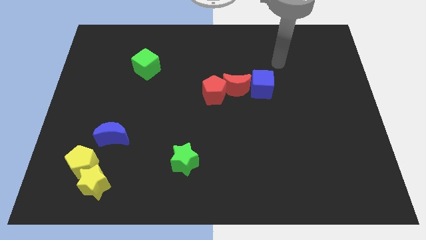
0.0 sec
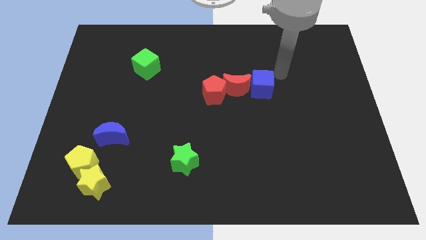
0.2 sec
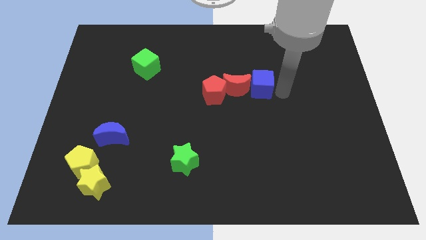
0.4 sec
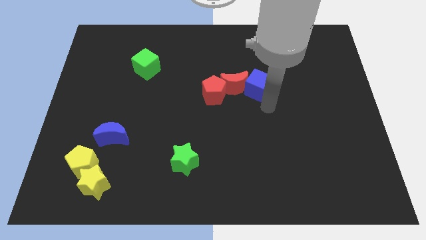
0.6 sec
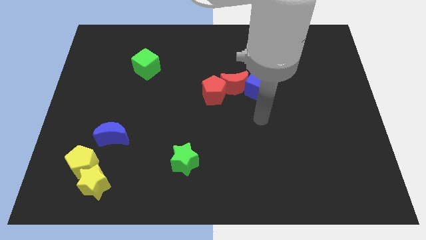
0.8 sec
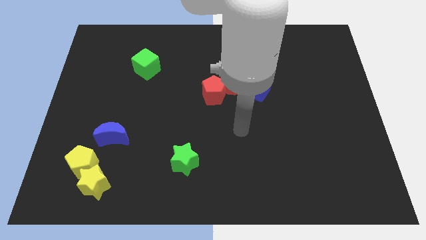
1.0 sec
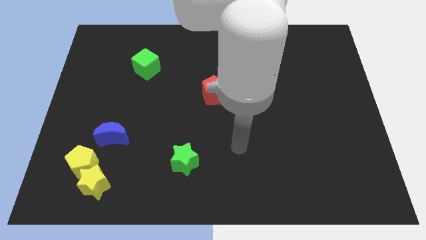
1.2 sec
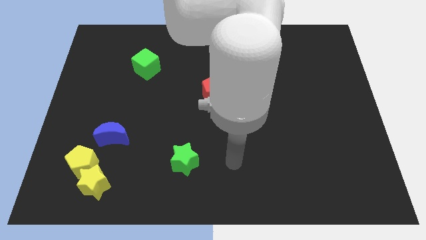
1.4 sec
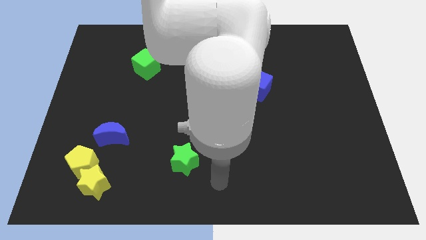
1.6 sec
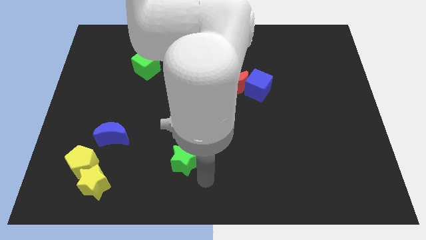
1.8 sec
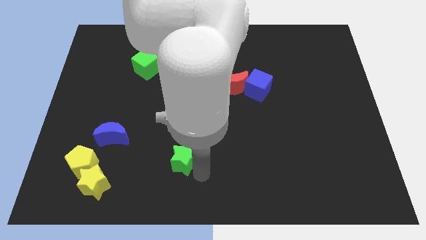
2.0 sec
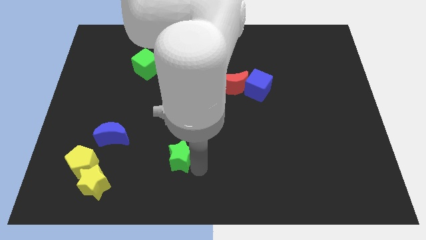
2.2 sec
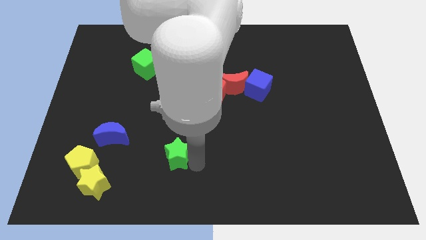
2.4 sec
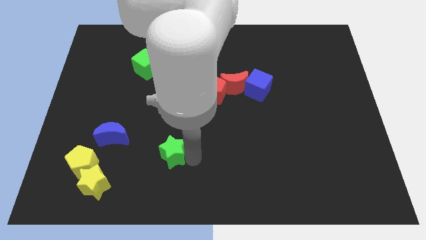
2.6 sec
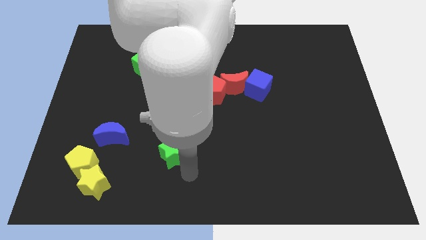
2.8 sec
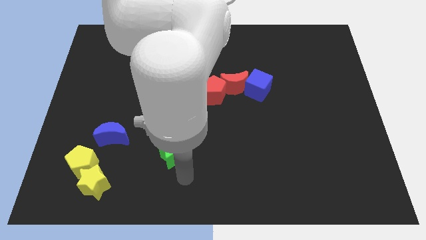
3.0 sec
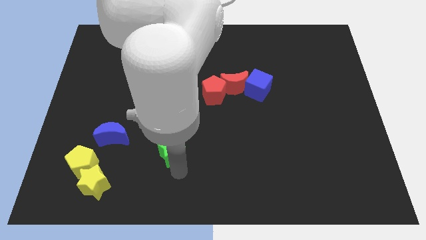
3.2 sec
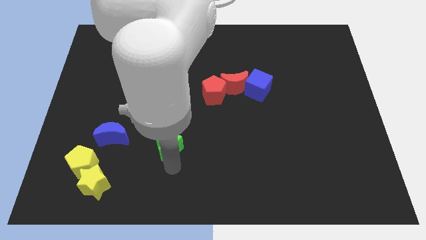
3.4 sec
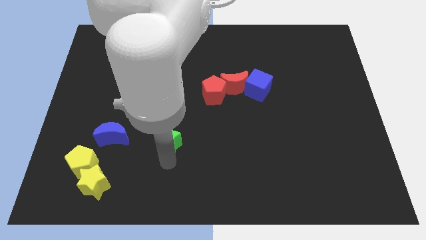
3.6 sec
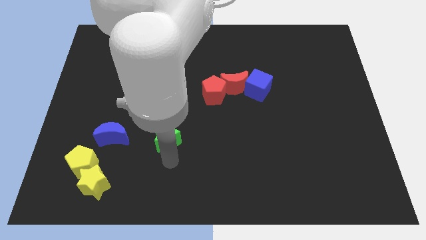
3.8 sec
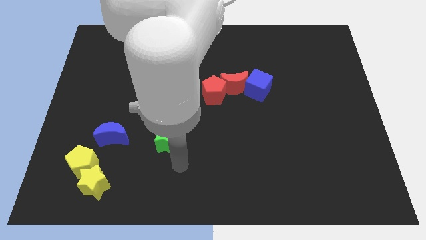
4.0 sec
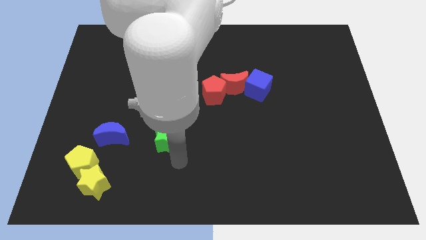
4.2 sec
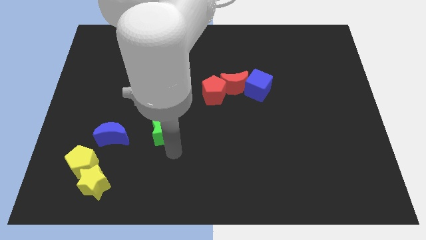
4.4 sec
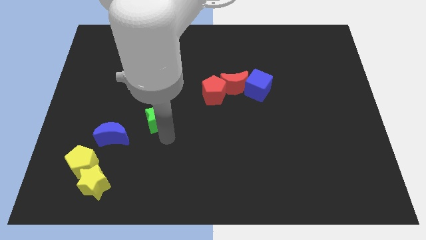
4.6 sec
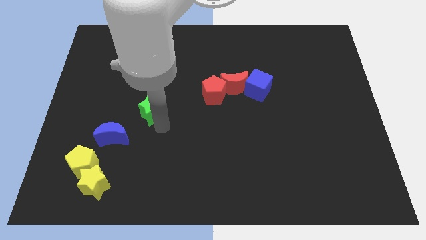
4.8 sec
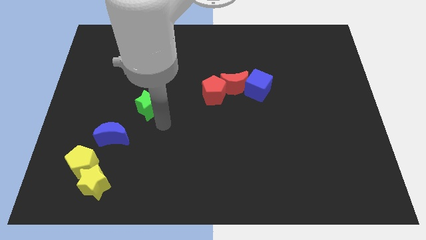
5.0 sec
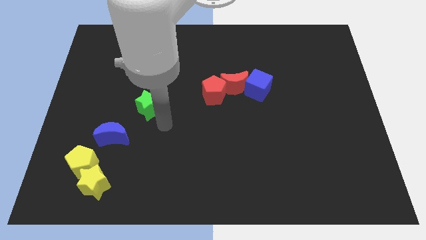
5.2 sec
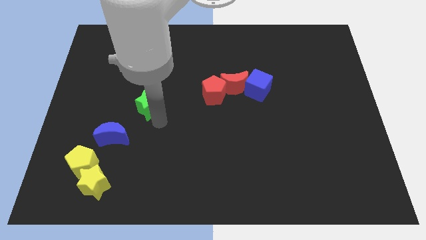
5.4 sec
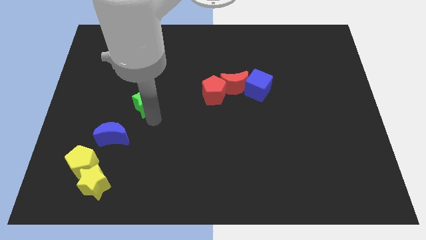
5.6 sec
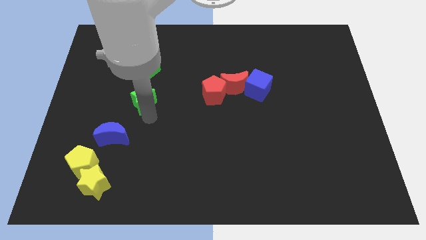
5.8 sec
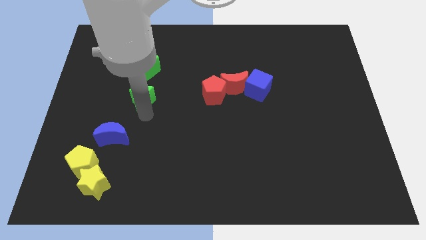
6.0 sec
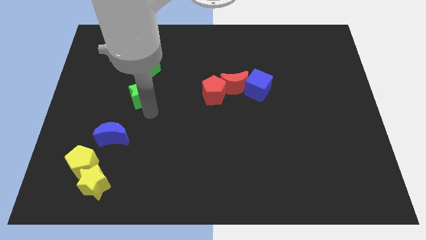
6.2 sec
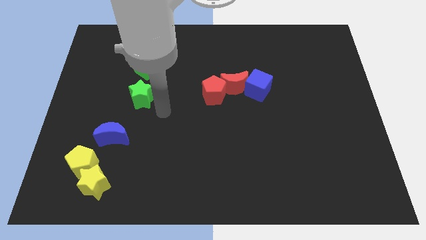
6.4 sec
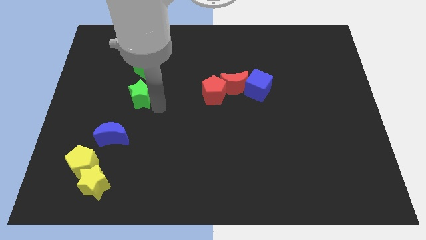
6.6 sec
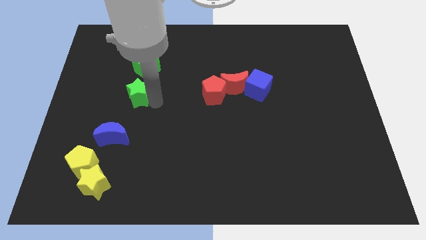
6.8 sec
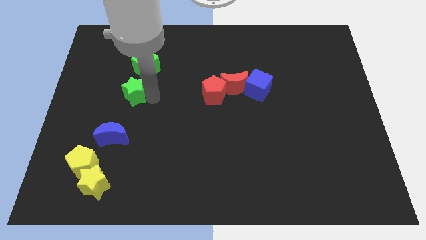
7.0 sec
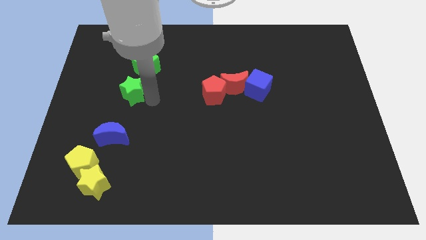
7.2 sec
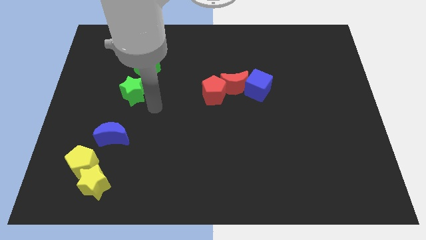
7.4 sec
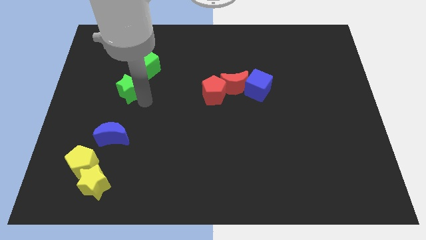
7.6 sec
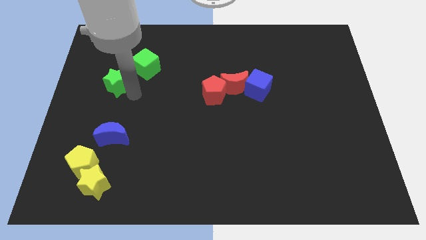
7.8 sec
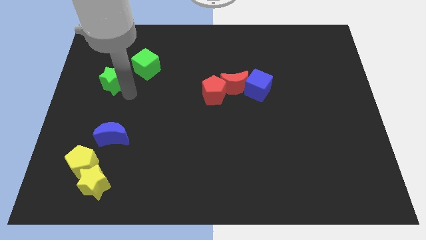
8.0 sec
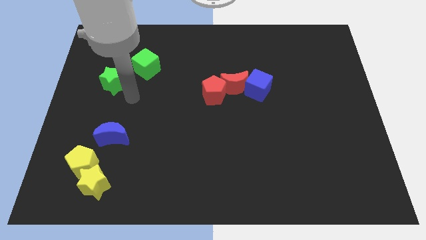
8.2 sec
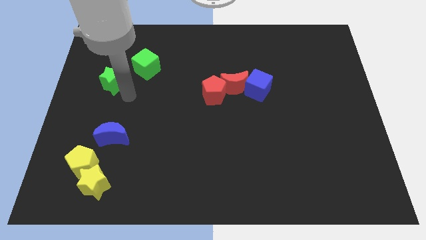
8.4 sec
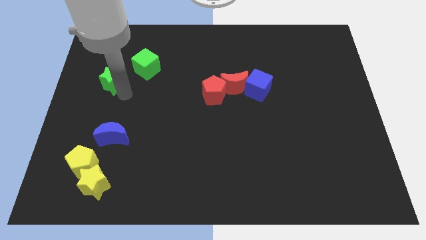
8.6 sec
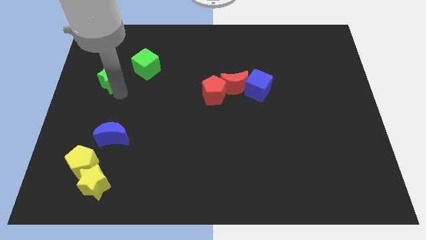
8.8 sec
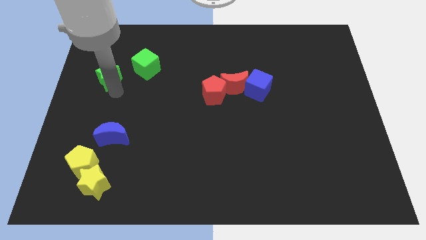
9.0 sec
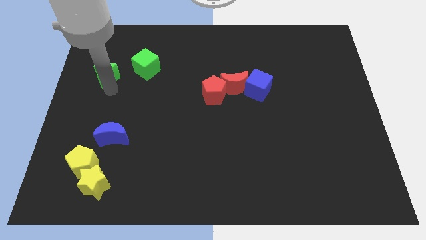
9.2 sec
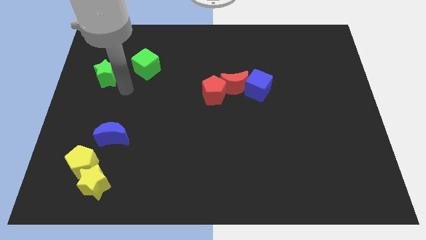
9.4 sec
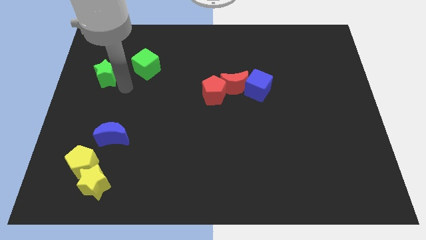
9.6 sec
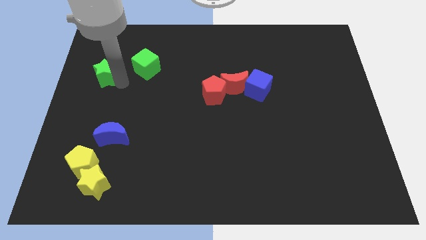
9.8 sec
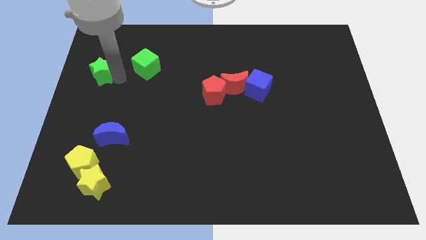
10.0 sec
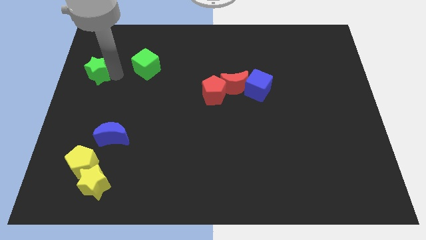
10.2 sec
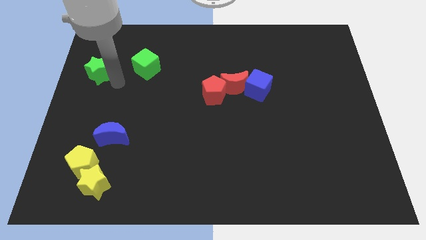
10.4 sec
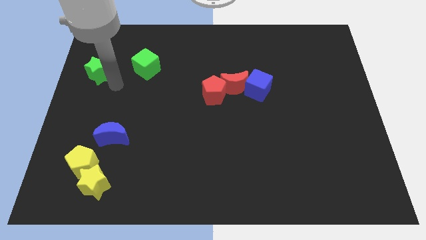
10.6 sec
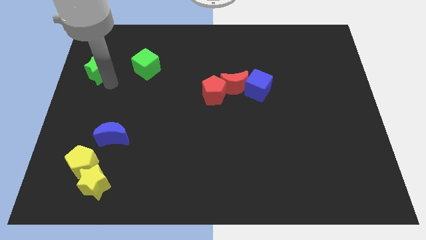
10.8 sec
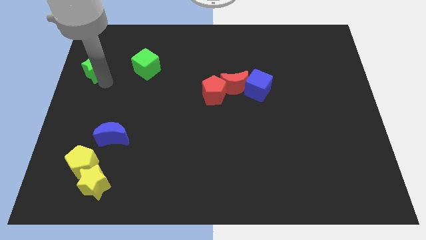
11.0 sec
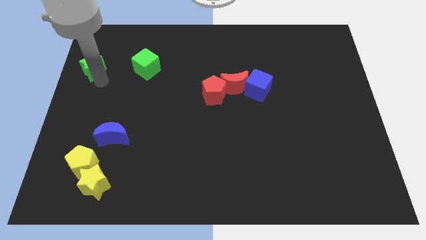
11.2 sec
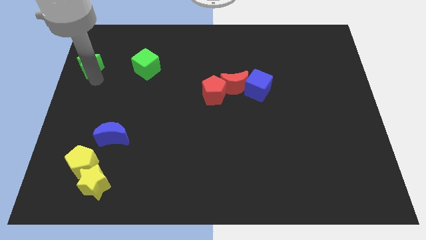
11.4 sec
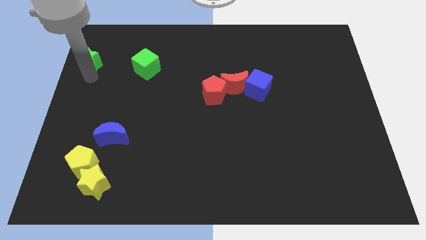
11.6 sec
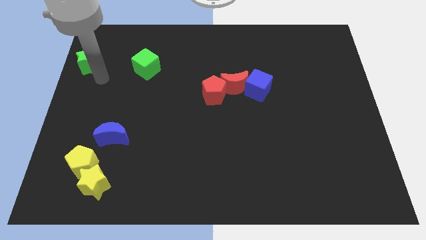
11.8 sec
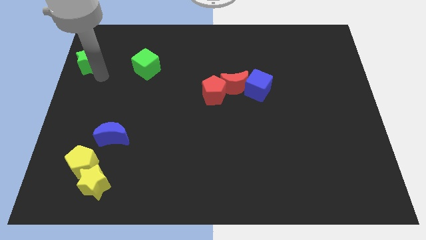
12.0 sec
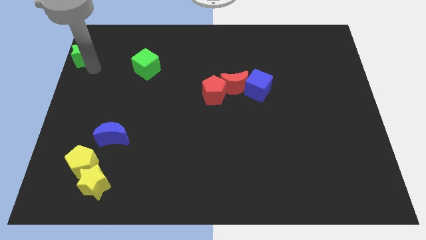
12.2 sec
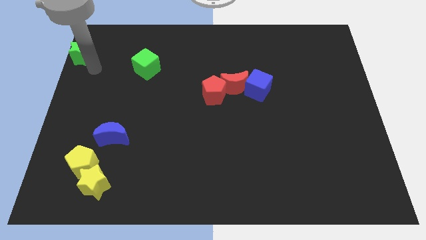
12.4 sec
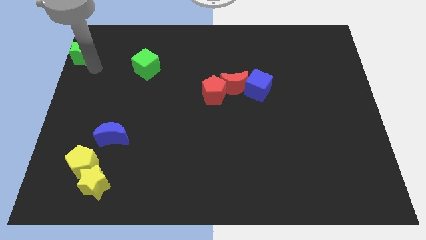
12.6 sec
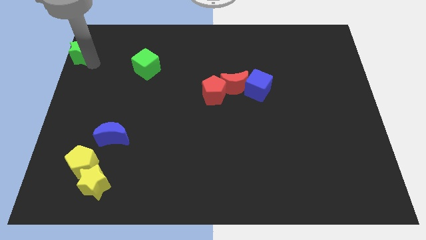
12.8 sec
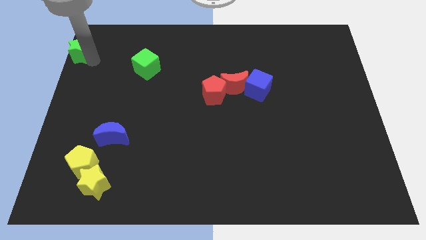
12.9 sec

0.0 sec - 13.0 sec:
slide the green star to the top left corner
